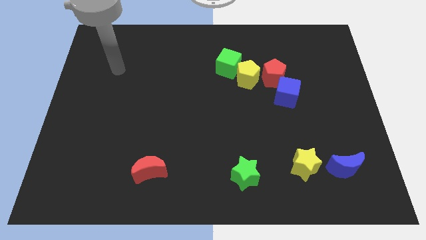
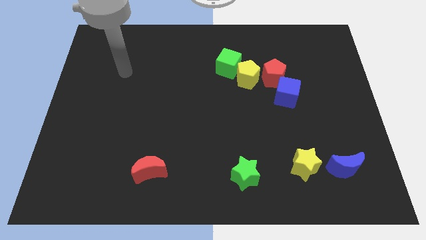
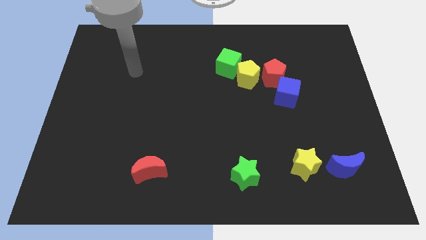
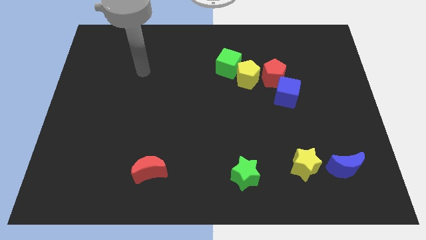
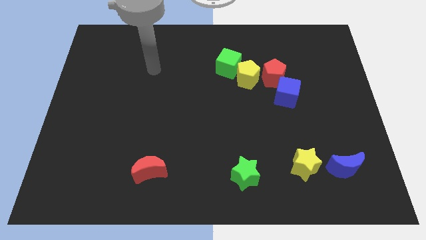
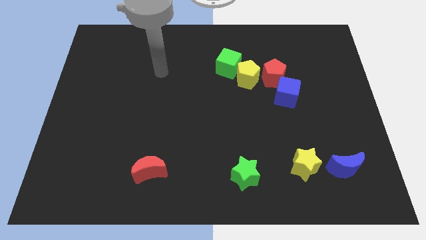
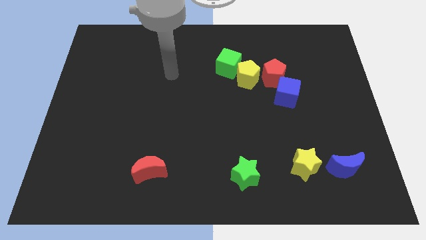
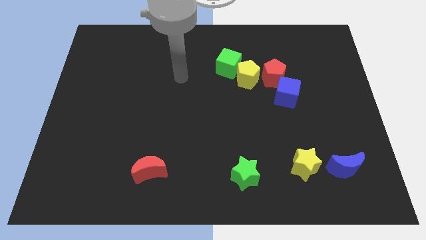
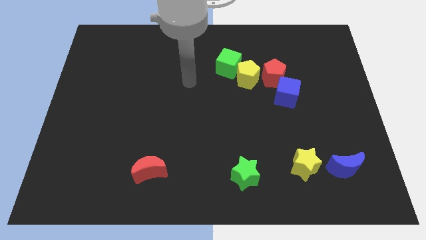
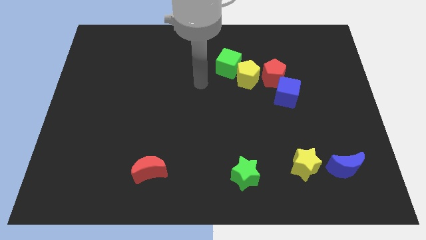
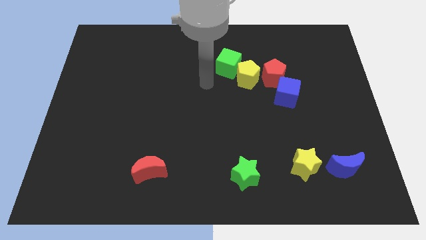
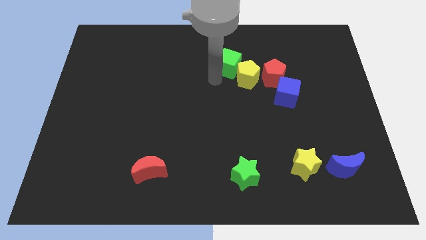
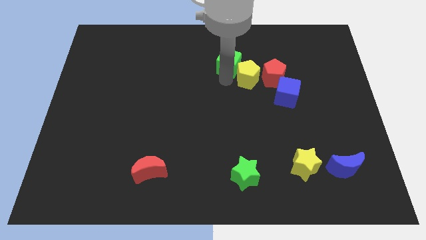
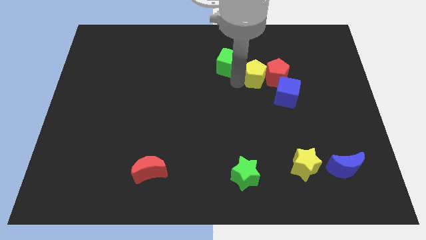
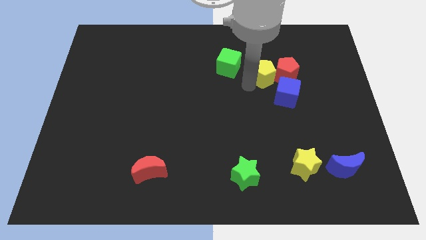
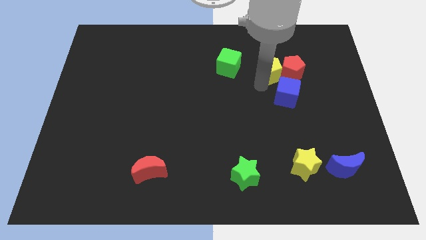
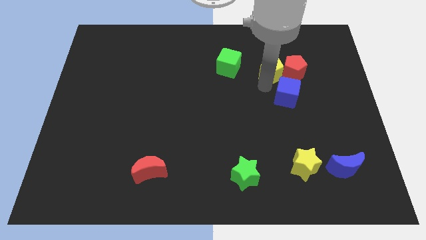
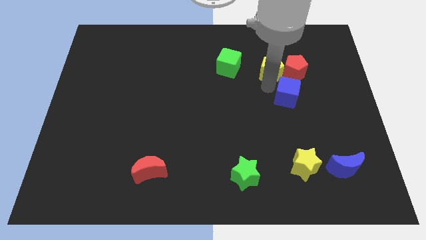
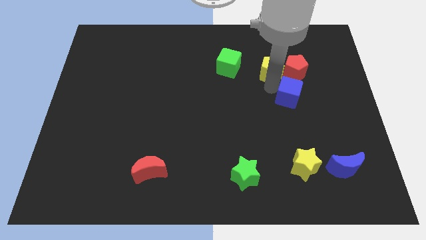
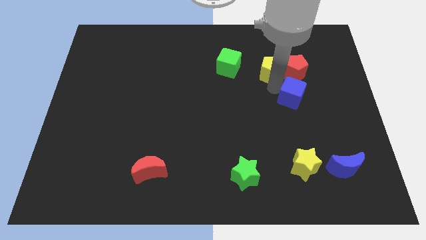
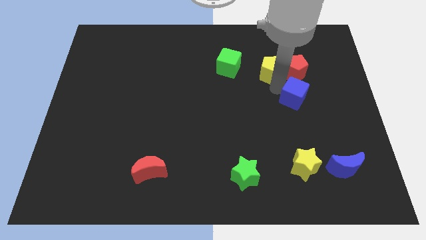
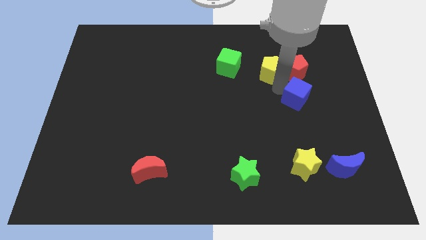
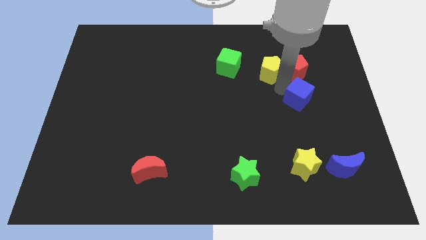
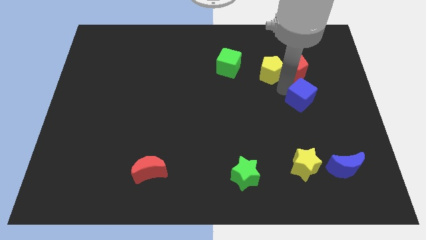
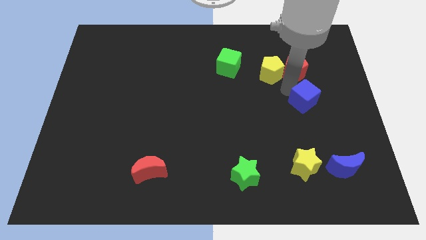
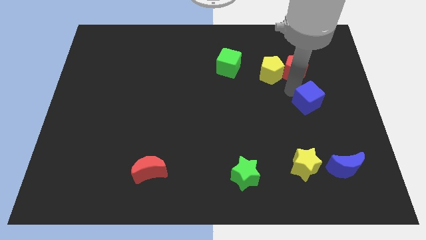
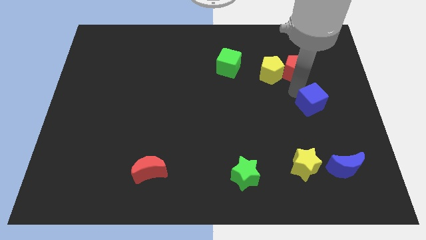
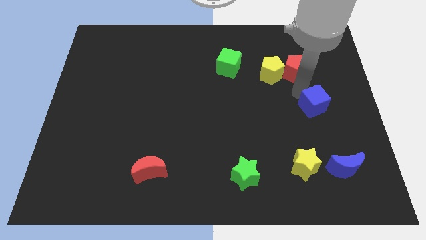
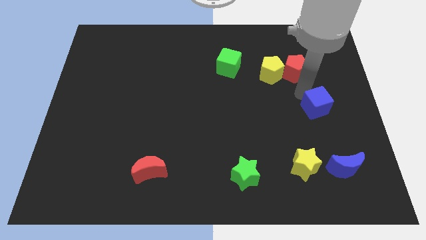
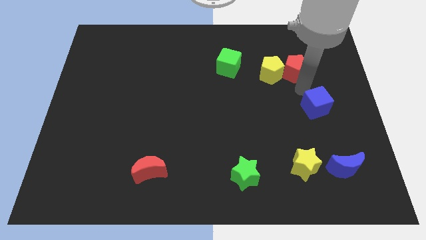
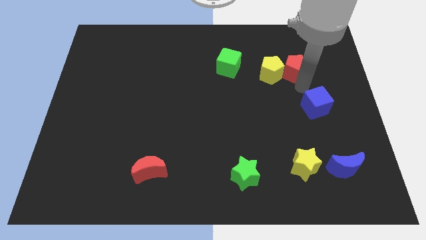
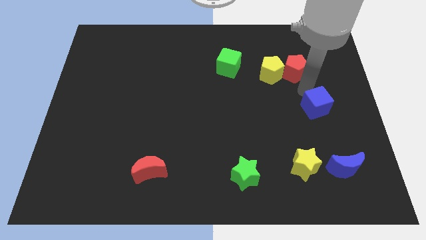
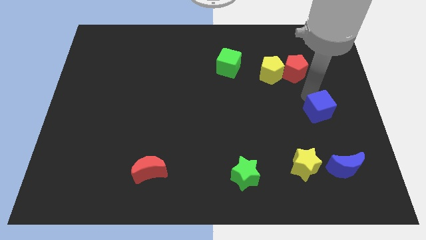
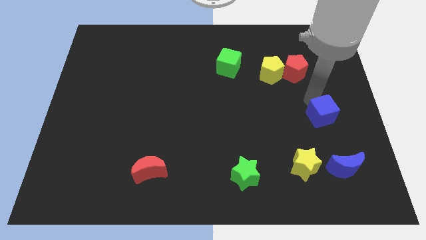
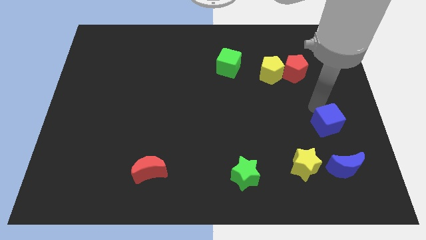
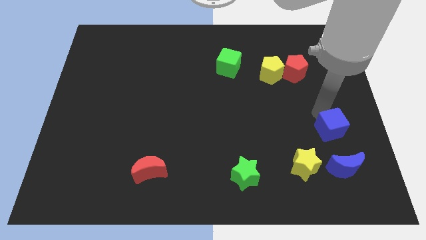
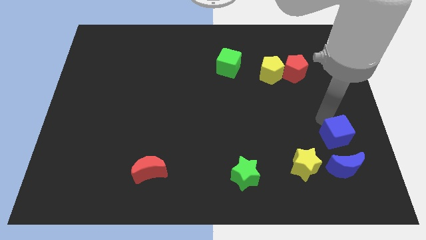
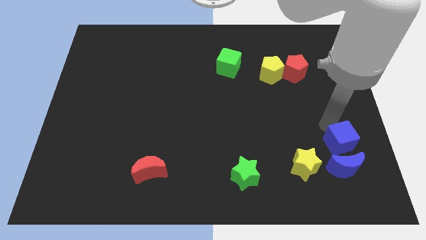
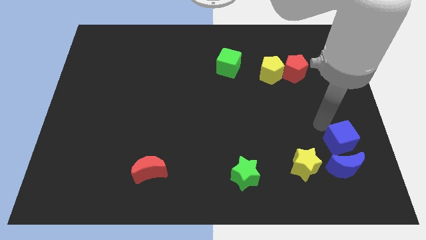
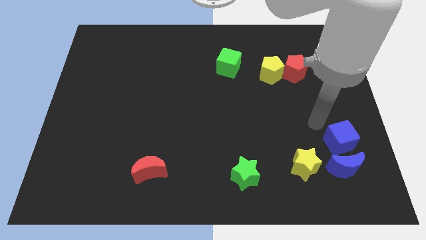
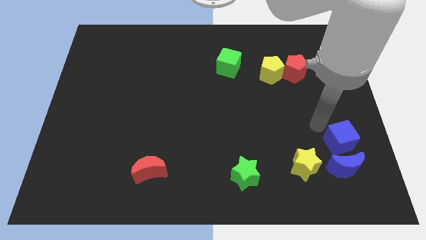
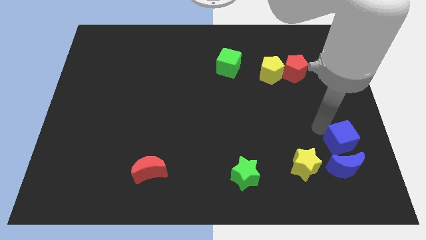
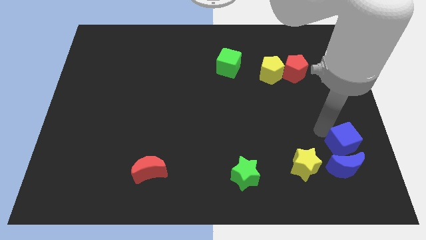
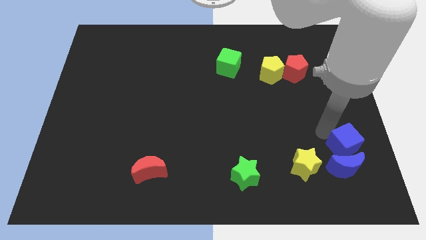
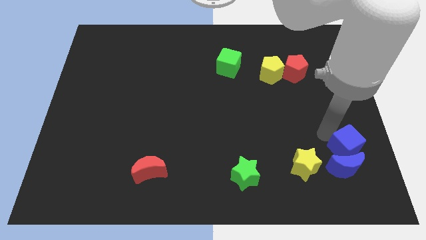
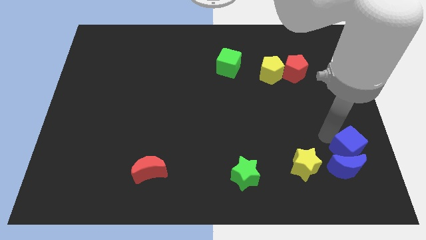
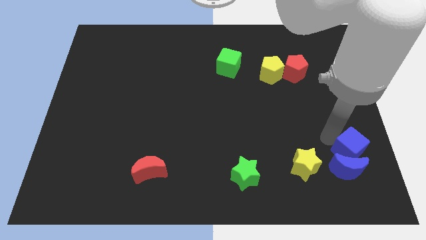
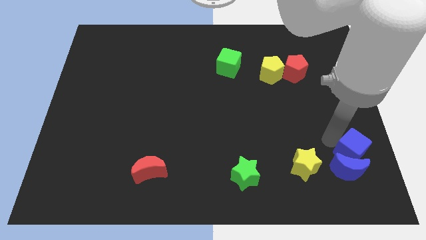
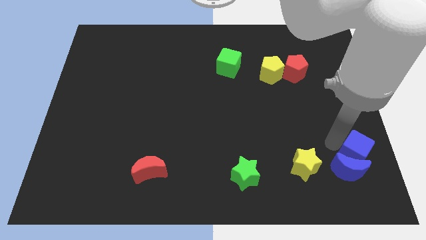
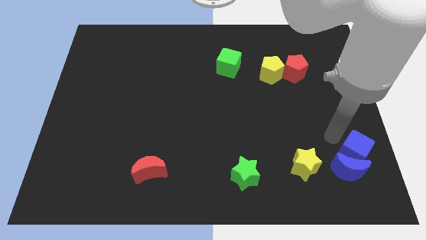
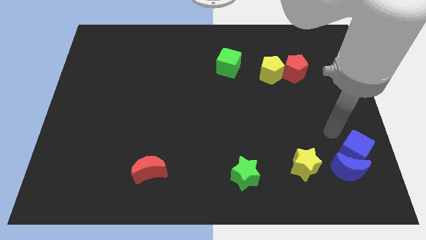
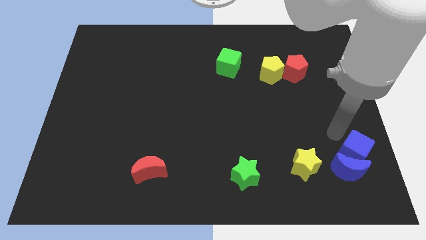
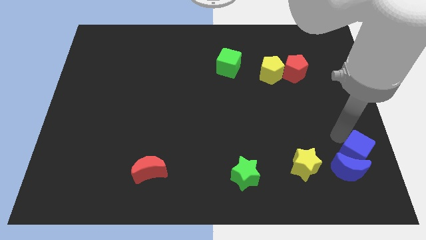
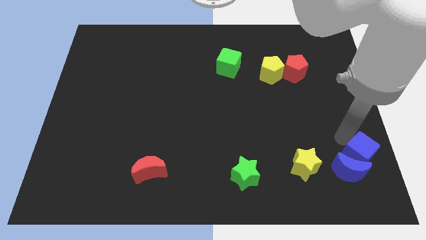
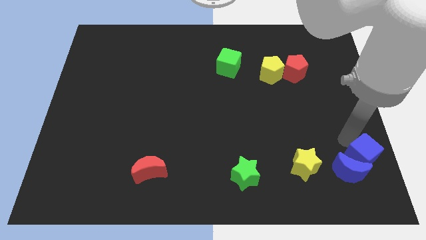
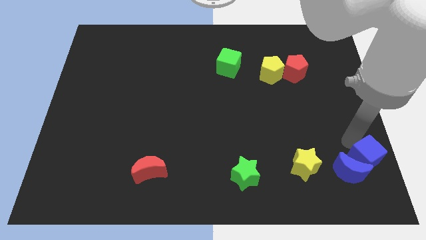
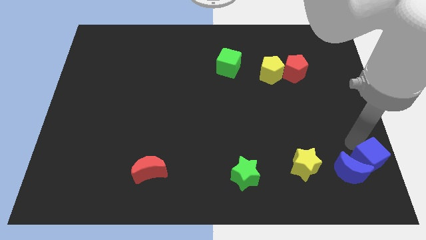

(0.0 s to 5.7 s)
slide the blue cube to the bottom right of the board

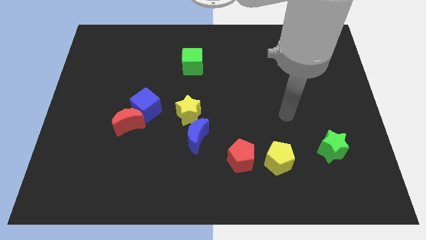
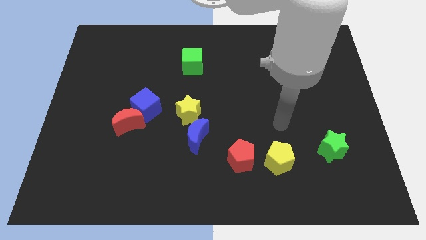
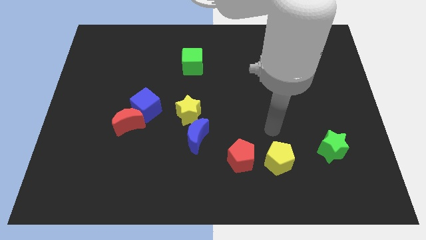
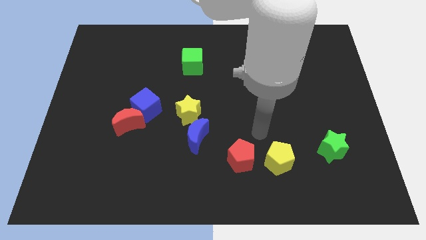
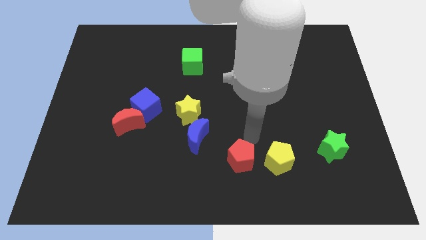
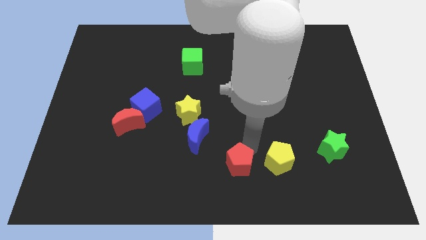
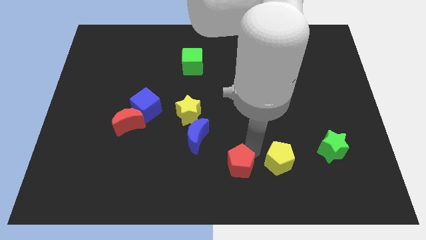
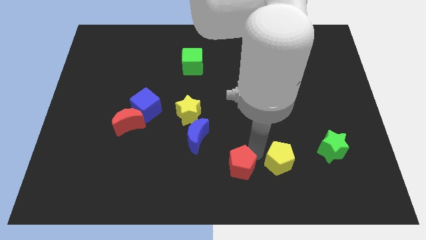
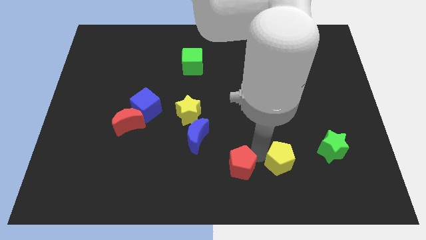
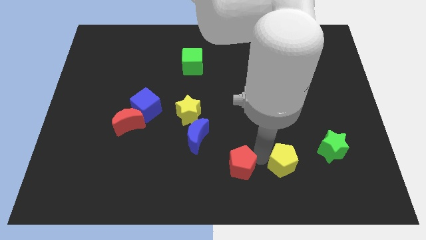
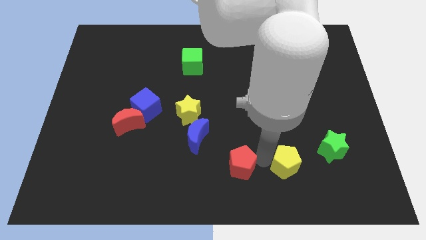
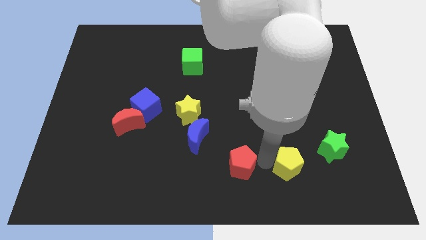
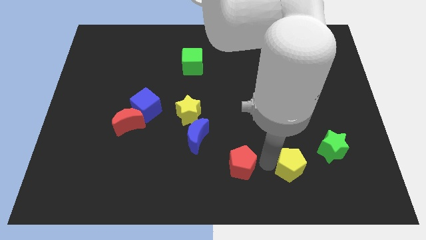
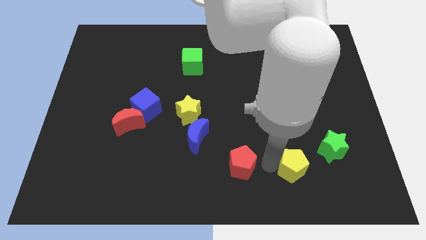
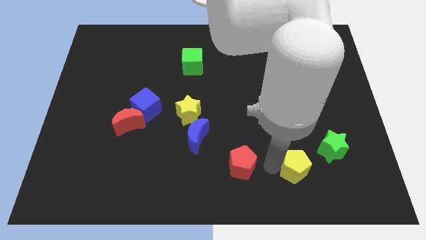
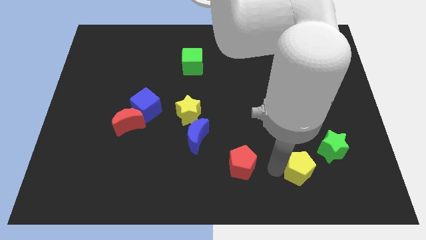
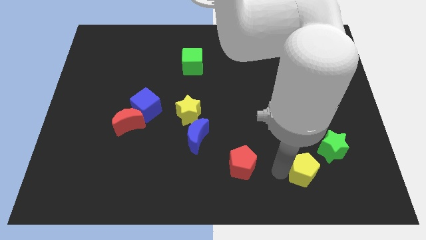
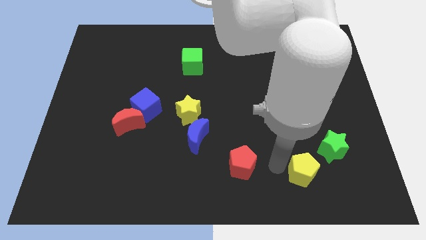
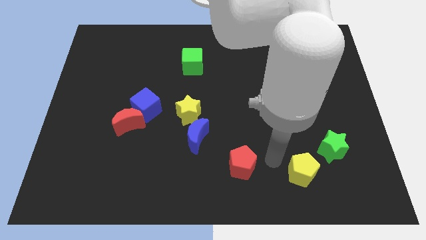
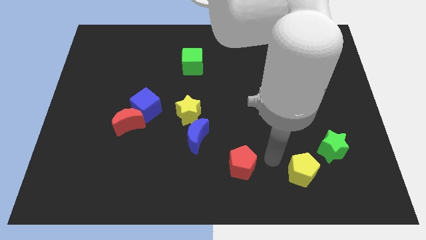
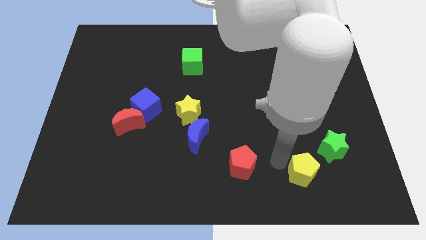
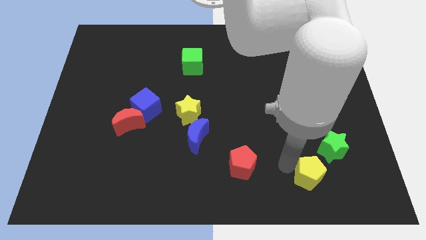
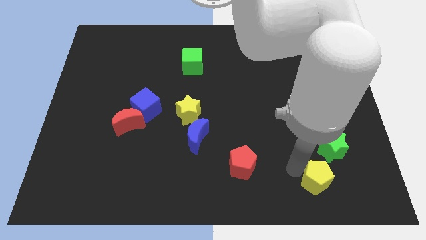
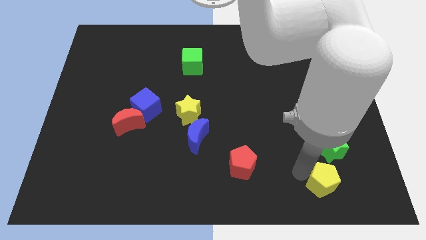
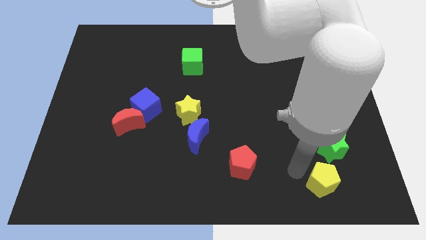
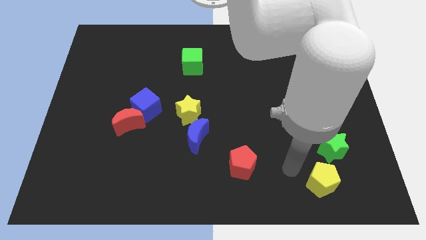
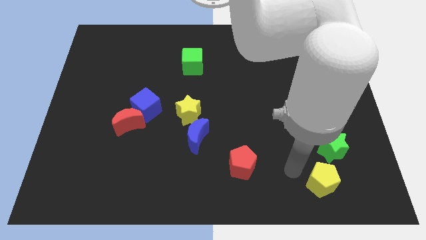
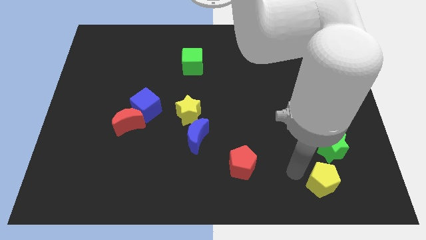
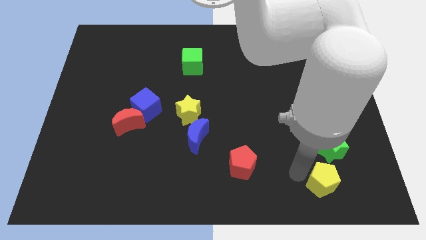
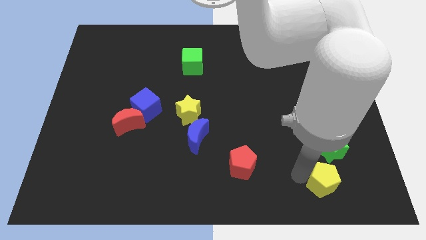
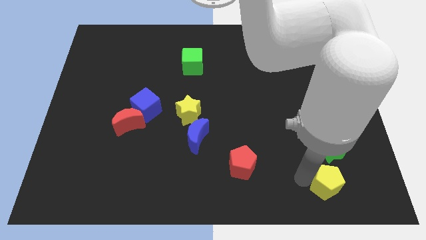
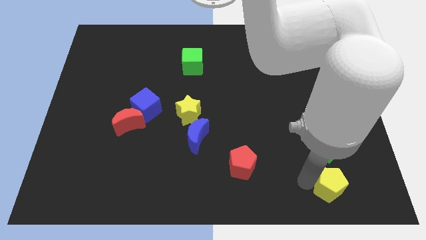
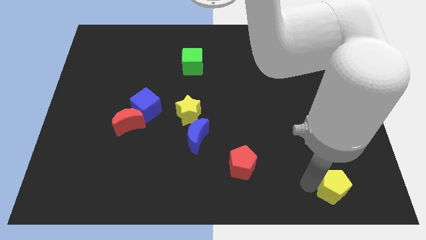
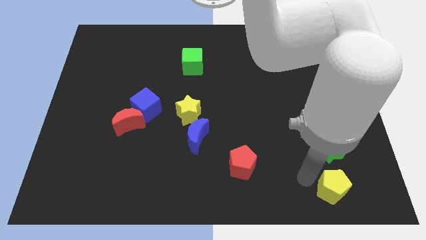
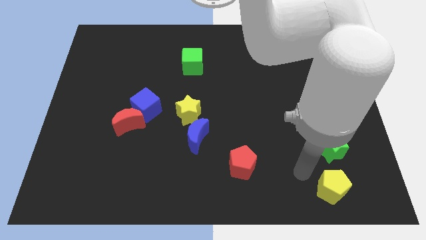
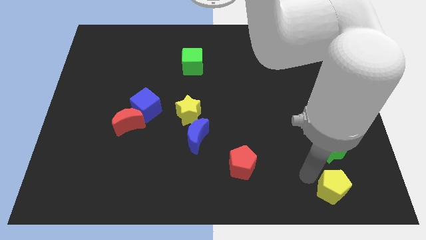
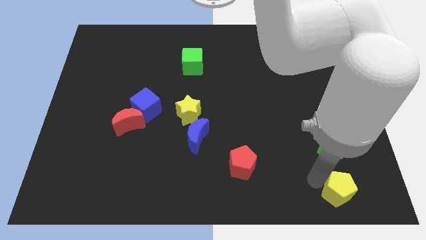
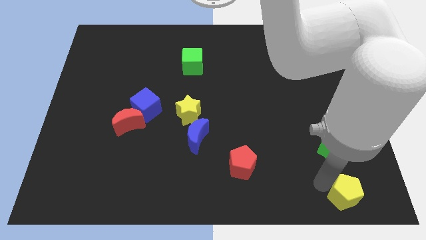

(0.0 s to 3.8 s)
push the yellow pentagon to the bottom right
